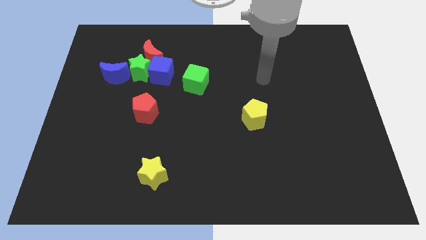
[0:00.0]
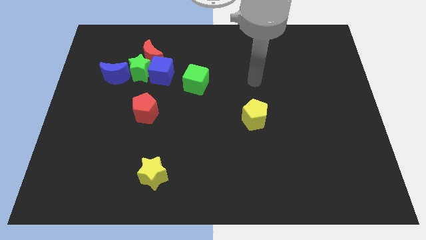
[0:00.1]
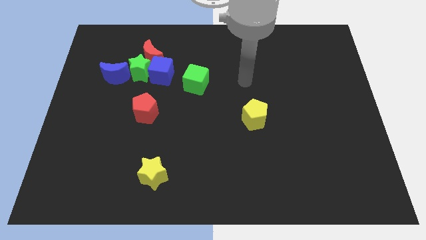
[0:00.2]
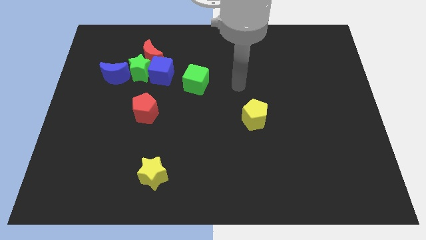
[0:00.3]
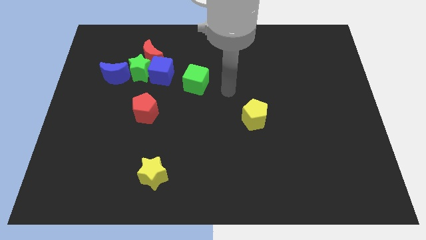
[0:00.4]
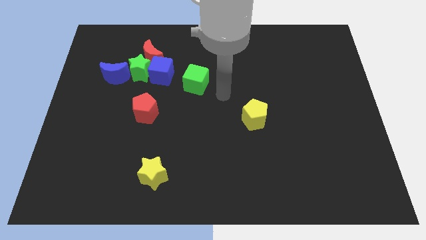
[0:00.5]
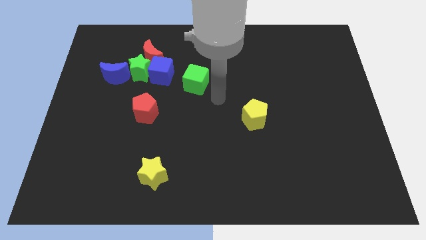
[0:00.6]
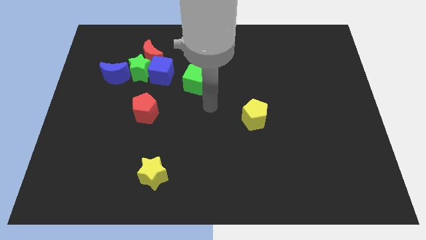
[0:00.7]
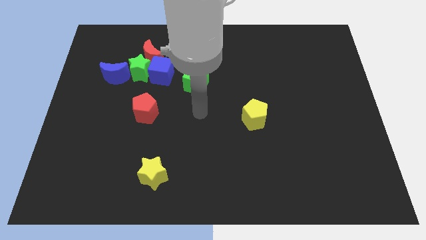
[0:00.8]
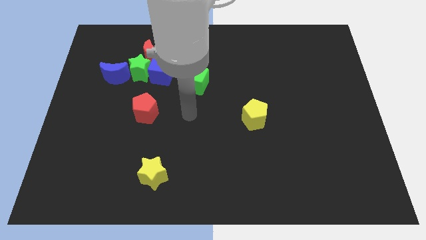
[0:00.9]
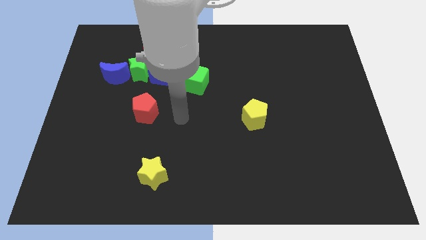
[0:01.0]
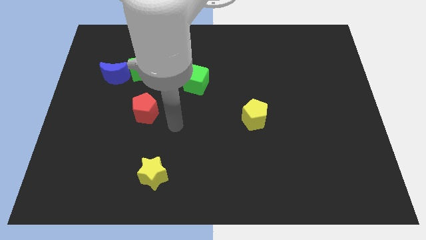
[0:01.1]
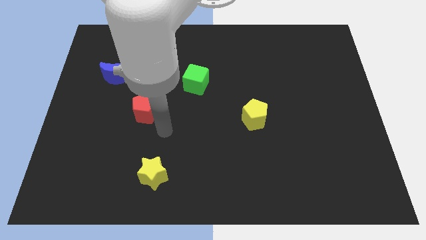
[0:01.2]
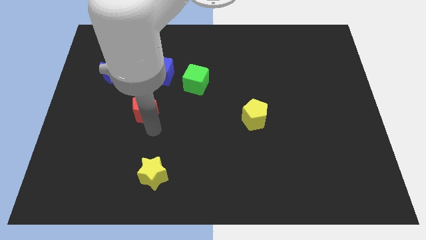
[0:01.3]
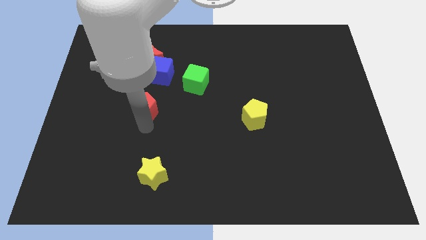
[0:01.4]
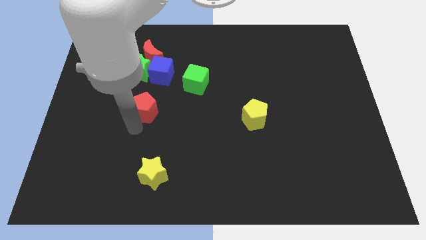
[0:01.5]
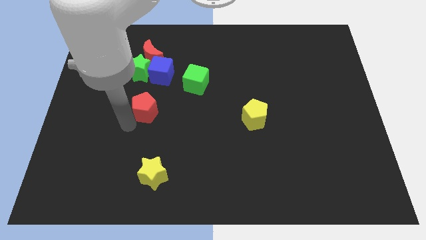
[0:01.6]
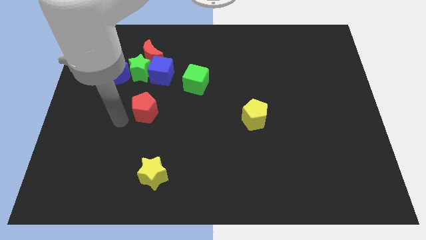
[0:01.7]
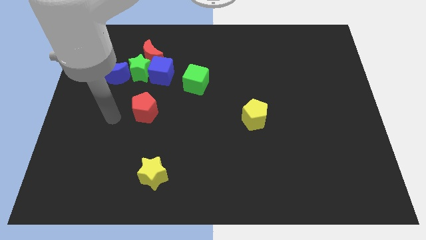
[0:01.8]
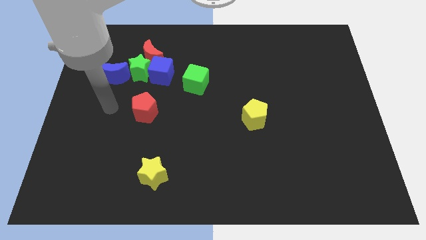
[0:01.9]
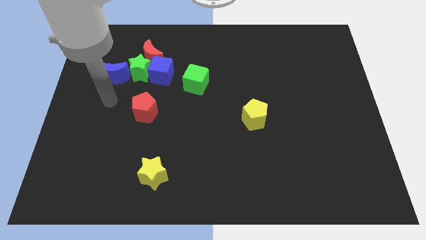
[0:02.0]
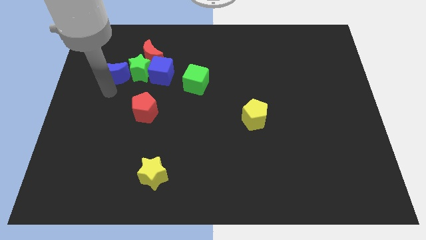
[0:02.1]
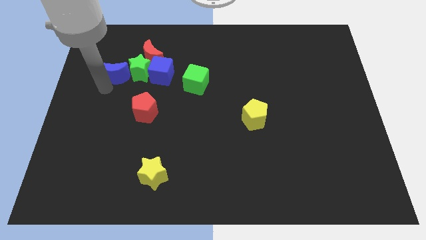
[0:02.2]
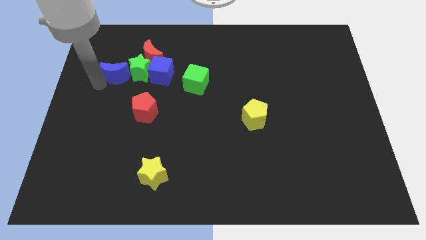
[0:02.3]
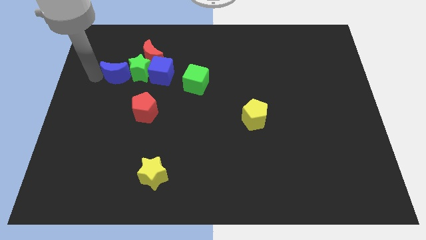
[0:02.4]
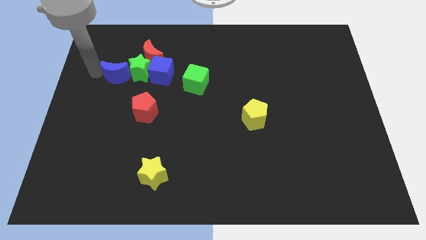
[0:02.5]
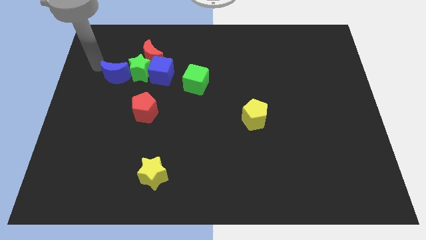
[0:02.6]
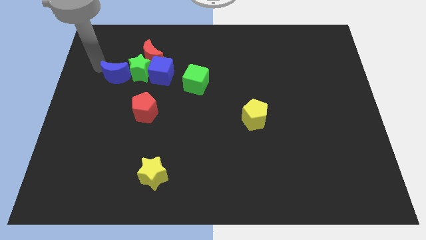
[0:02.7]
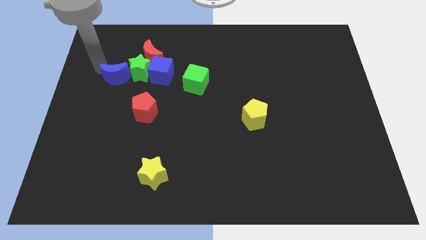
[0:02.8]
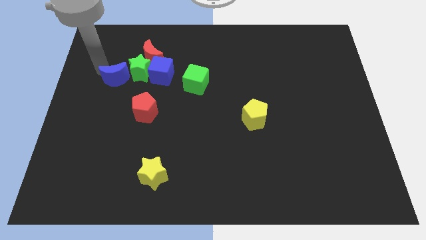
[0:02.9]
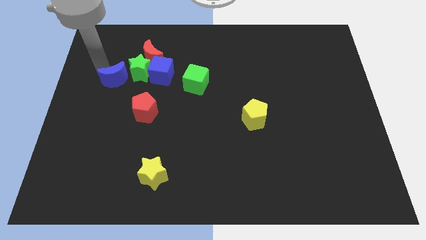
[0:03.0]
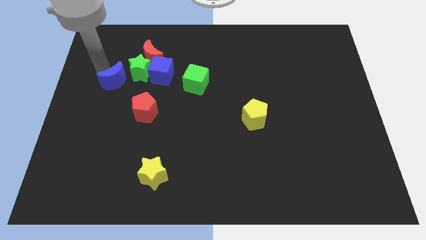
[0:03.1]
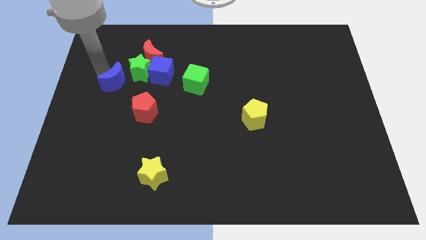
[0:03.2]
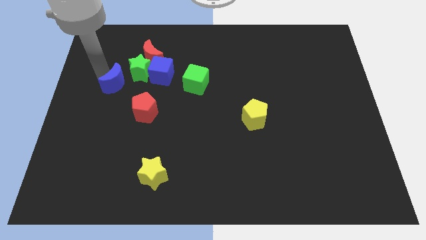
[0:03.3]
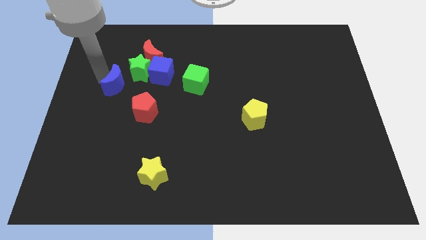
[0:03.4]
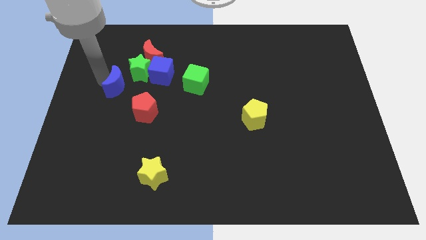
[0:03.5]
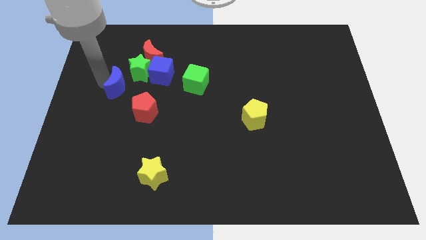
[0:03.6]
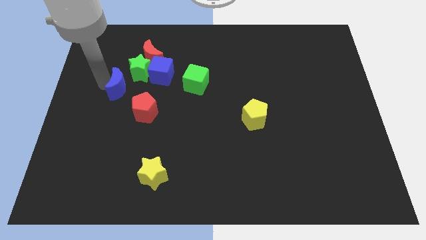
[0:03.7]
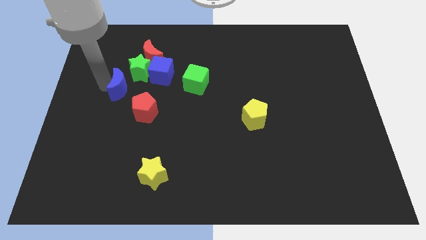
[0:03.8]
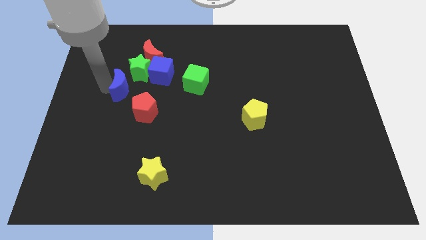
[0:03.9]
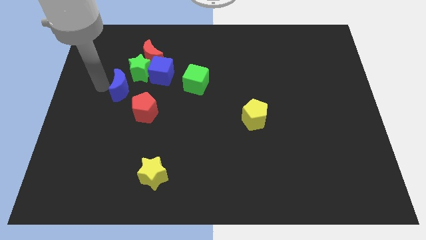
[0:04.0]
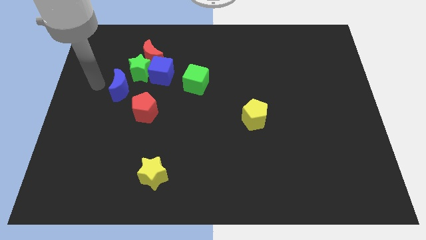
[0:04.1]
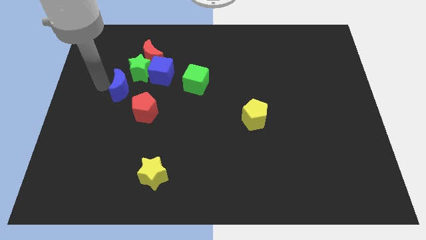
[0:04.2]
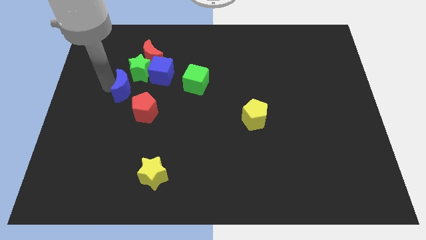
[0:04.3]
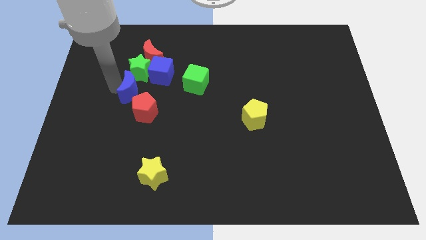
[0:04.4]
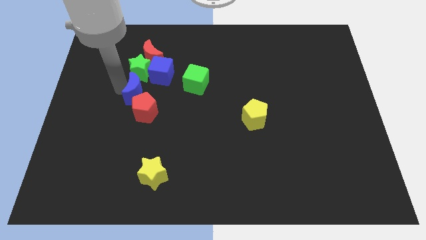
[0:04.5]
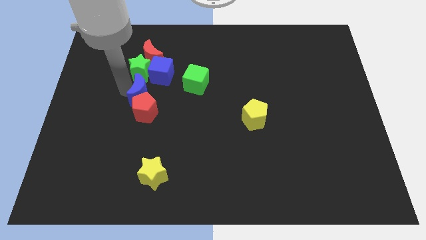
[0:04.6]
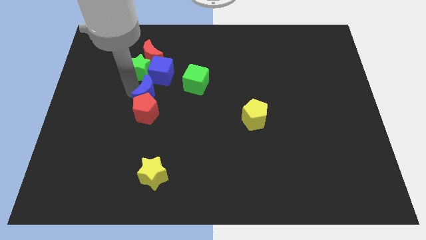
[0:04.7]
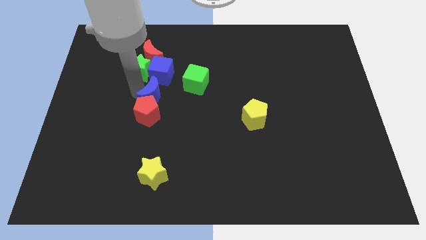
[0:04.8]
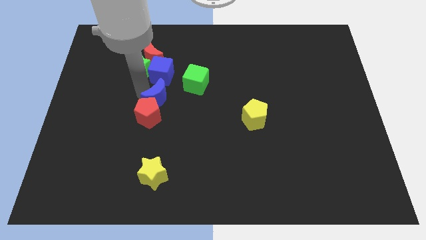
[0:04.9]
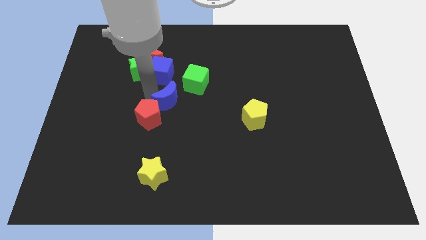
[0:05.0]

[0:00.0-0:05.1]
put the blue moon to the right side of the red pentagon

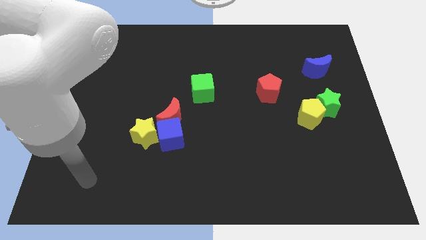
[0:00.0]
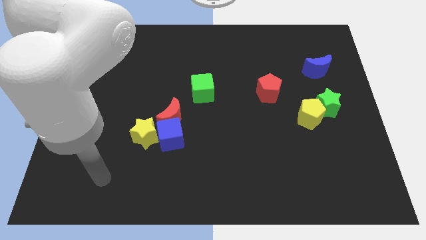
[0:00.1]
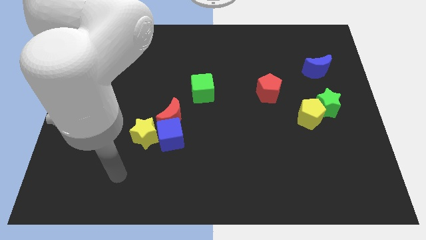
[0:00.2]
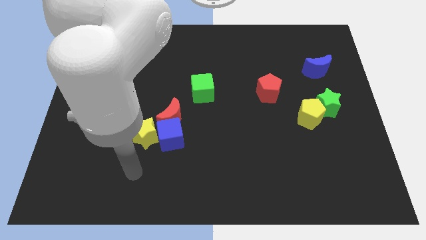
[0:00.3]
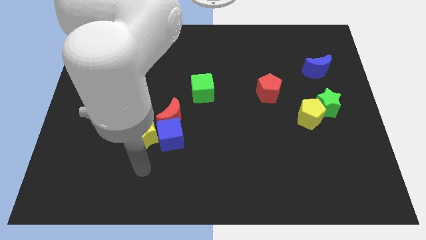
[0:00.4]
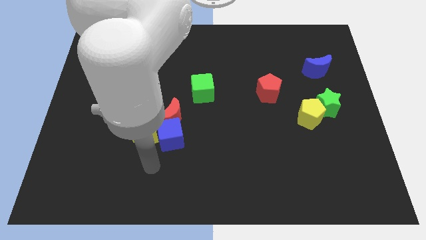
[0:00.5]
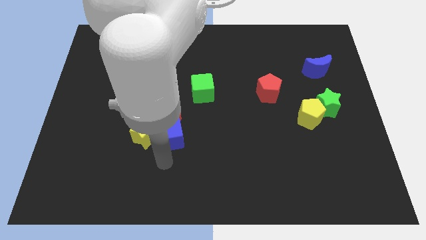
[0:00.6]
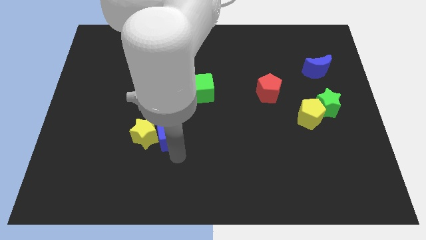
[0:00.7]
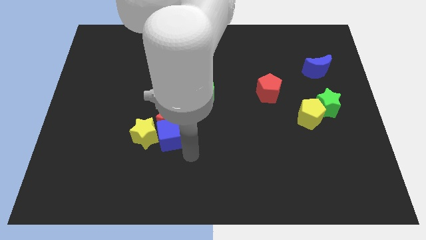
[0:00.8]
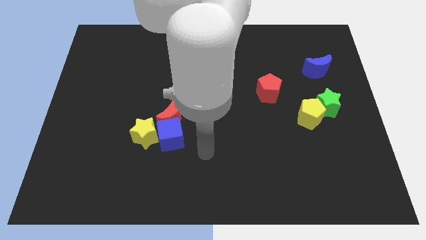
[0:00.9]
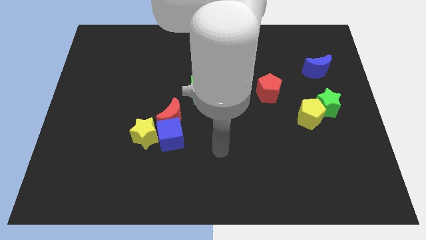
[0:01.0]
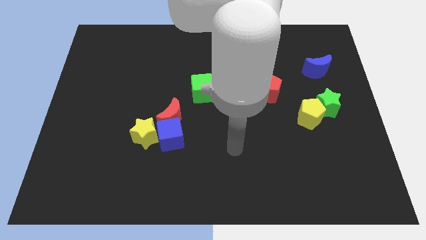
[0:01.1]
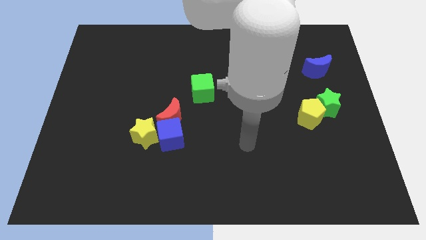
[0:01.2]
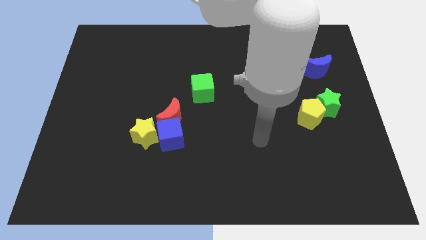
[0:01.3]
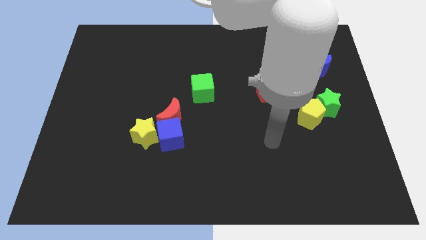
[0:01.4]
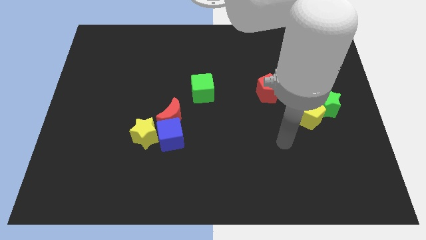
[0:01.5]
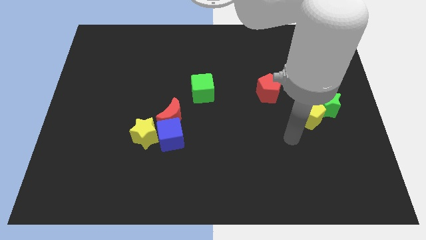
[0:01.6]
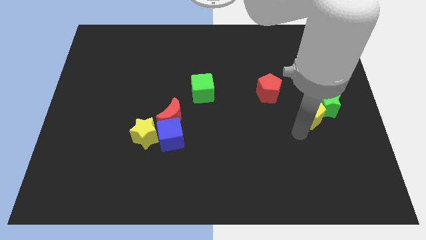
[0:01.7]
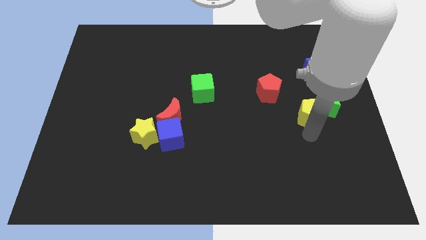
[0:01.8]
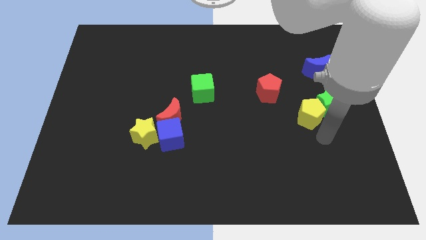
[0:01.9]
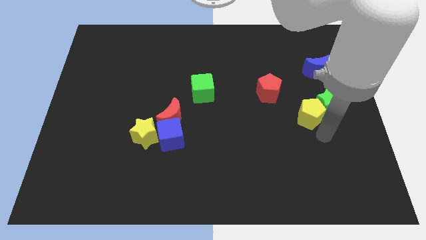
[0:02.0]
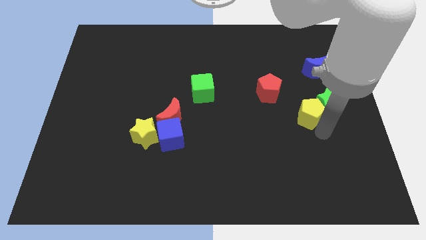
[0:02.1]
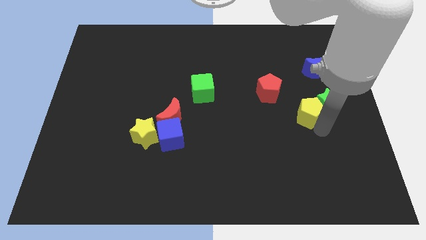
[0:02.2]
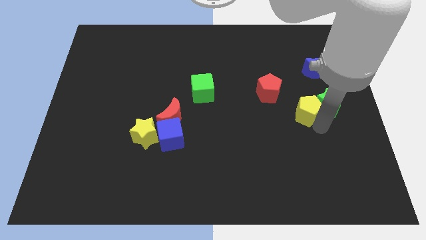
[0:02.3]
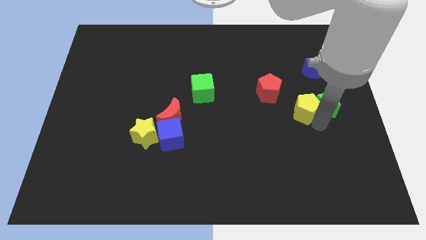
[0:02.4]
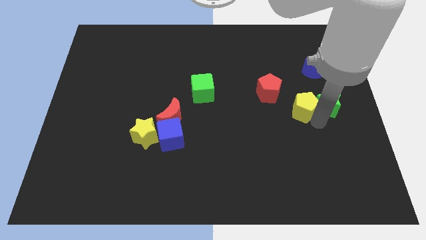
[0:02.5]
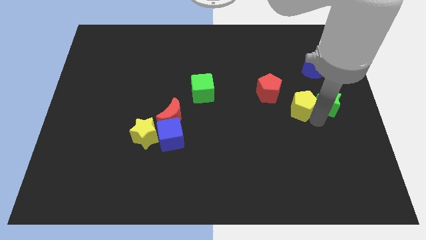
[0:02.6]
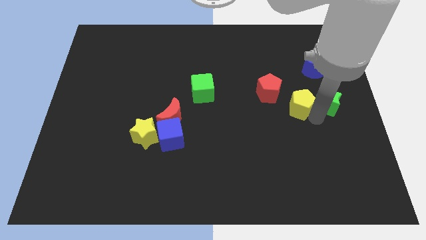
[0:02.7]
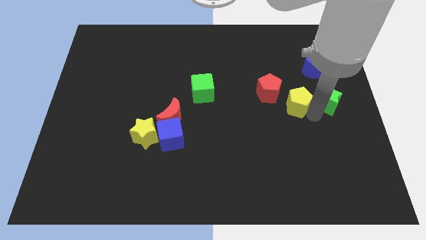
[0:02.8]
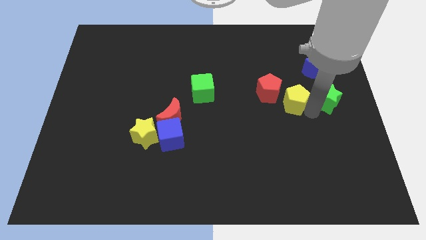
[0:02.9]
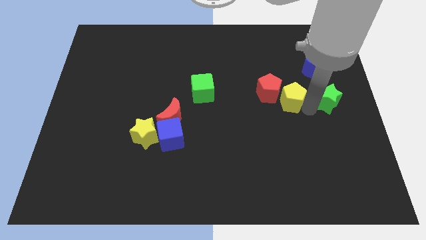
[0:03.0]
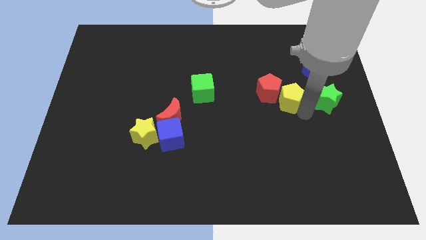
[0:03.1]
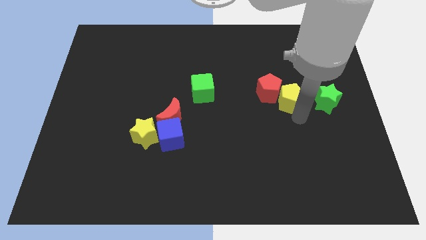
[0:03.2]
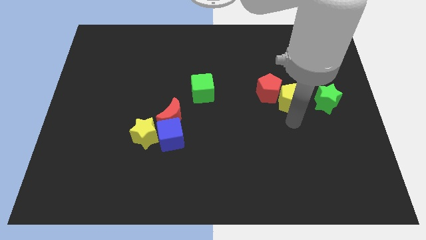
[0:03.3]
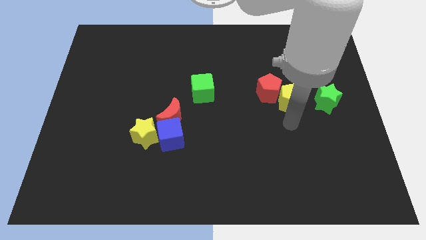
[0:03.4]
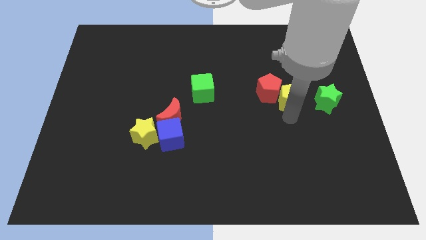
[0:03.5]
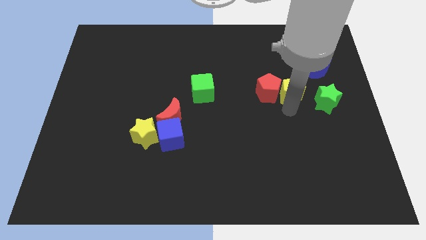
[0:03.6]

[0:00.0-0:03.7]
put the yellow pentagon diagonally up and to the right of the red pentagon
